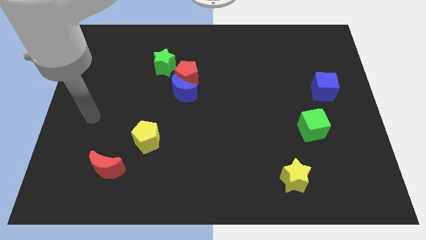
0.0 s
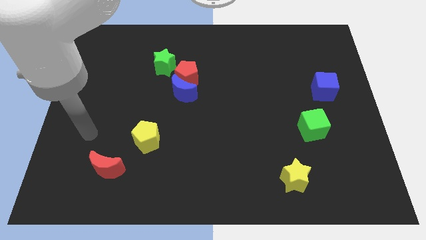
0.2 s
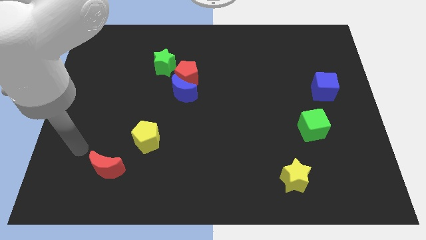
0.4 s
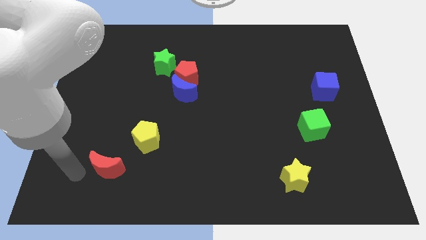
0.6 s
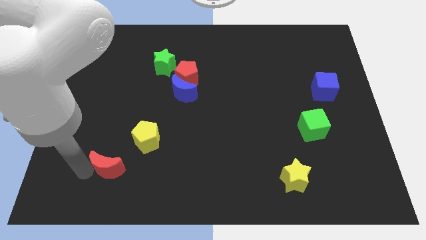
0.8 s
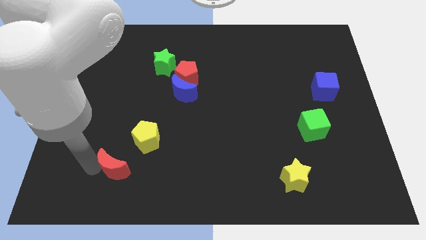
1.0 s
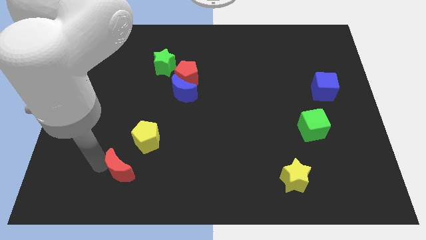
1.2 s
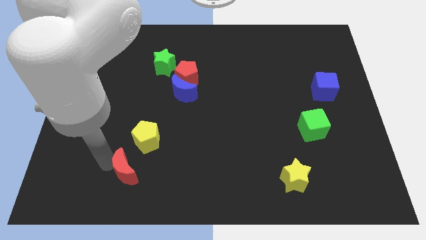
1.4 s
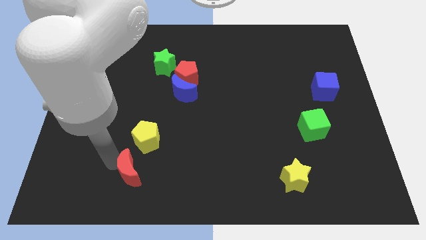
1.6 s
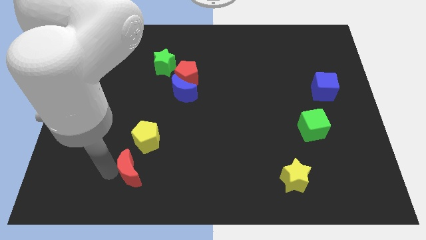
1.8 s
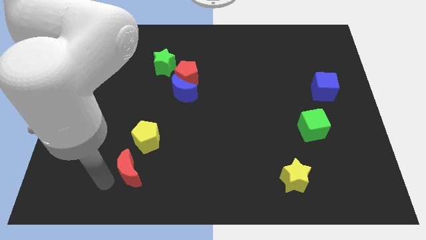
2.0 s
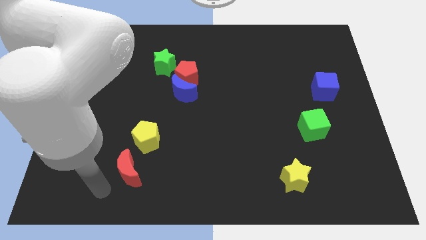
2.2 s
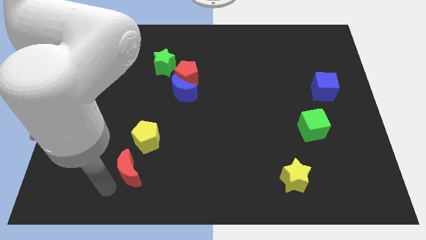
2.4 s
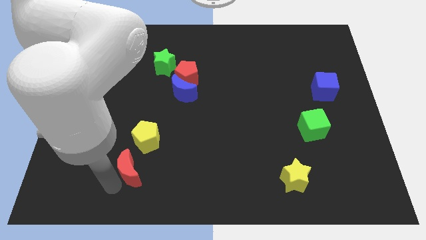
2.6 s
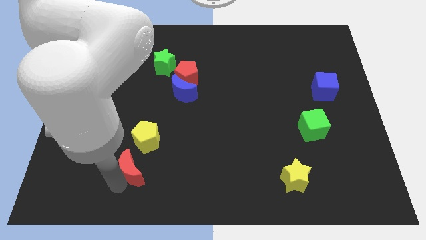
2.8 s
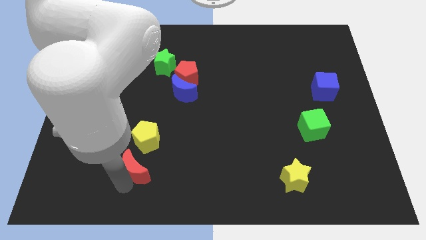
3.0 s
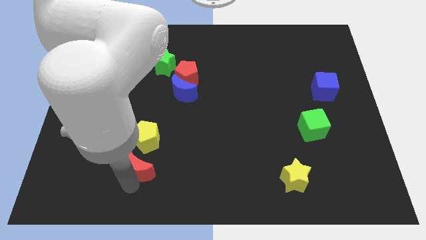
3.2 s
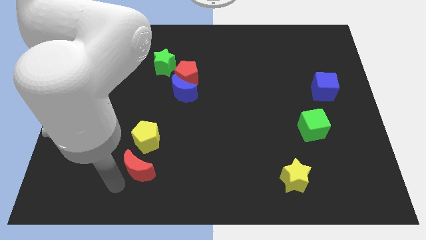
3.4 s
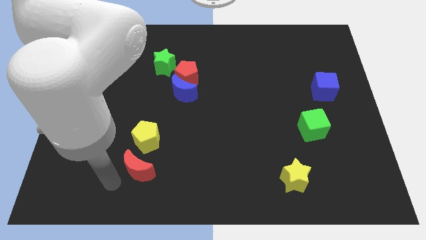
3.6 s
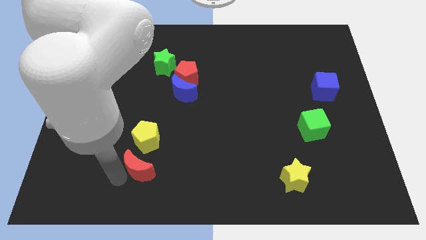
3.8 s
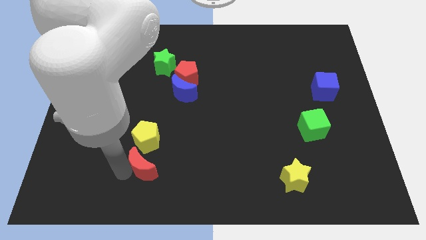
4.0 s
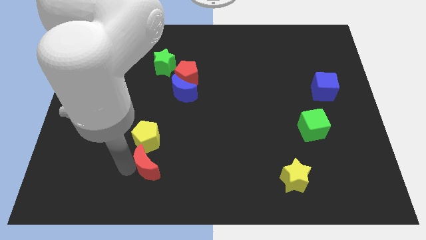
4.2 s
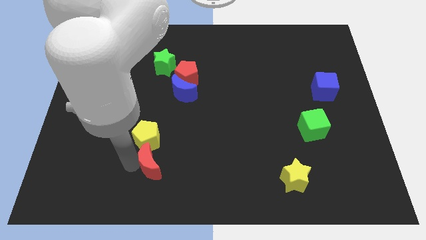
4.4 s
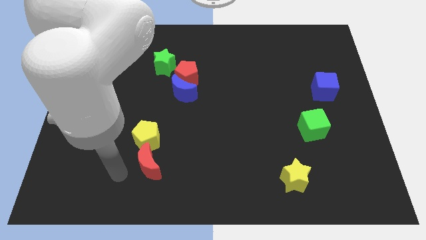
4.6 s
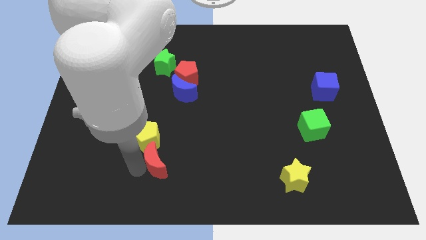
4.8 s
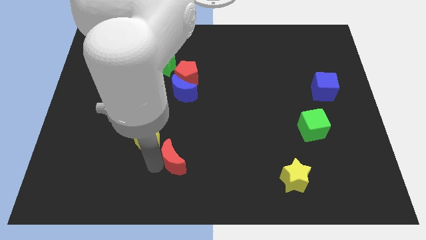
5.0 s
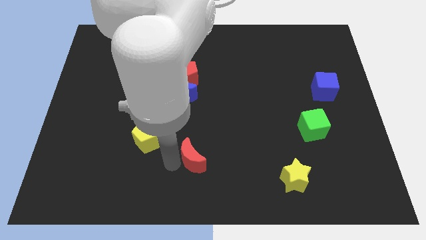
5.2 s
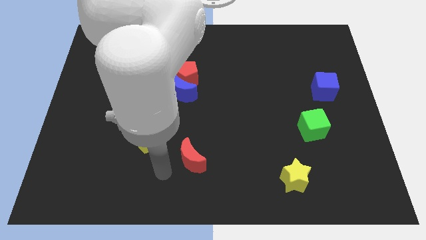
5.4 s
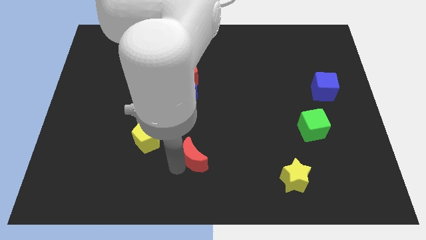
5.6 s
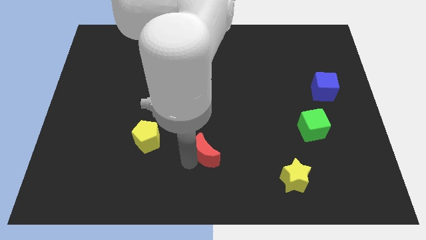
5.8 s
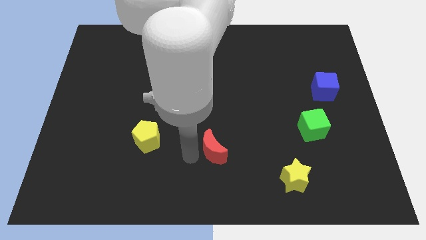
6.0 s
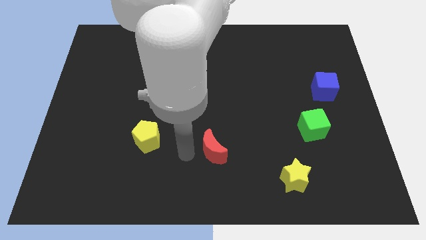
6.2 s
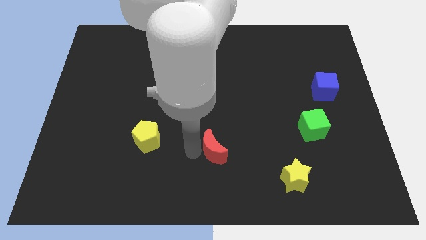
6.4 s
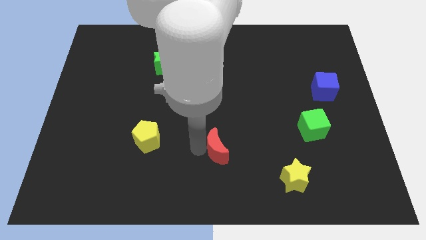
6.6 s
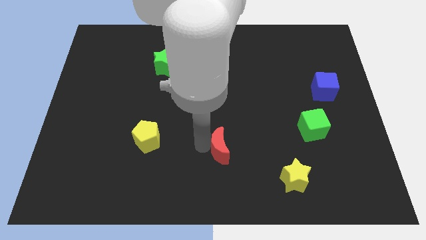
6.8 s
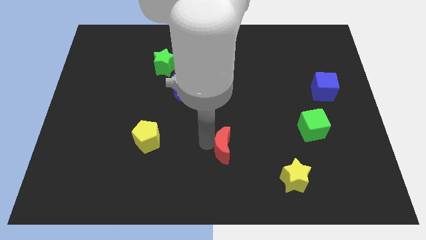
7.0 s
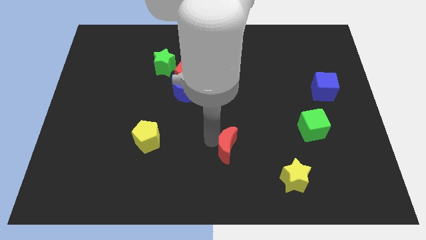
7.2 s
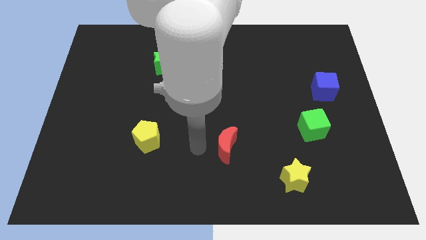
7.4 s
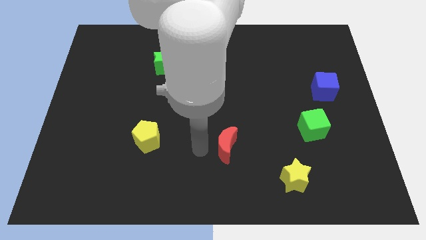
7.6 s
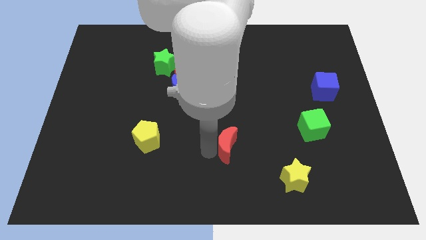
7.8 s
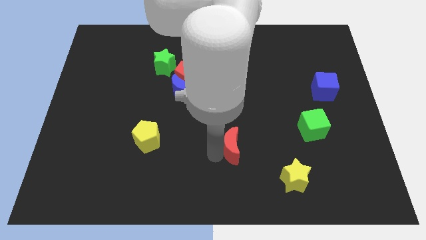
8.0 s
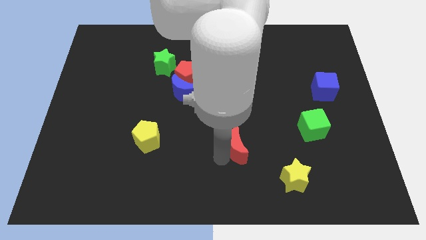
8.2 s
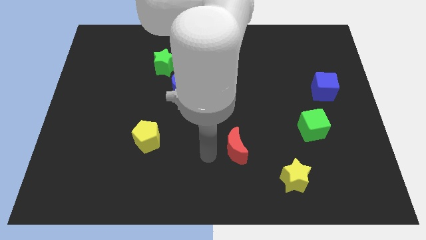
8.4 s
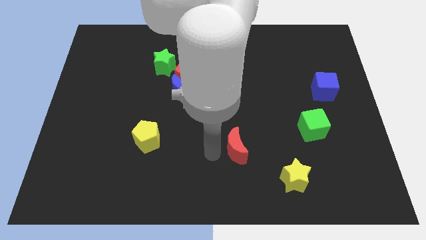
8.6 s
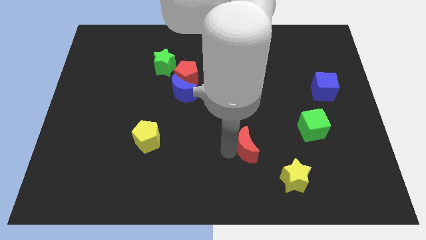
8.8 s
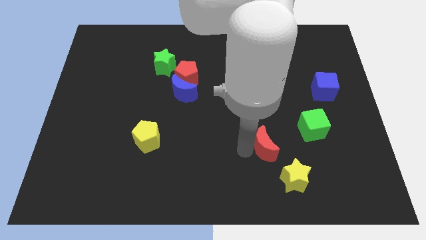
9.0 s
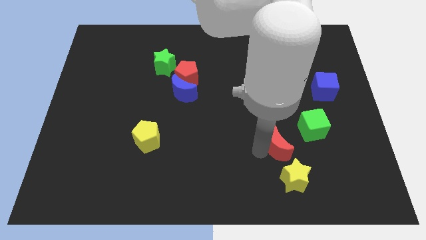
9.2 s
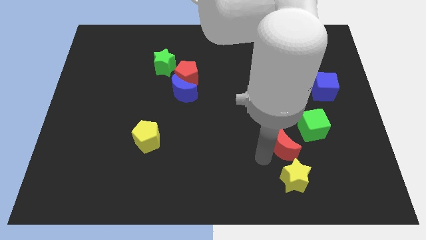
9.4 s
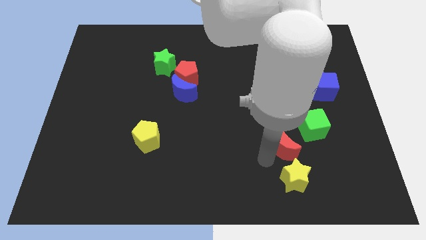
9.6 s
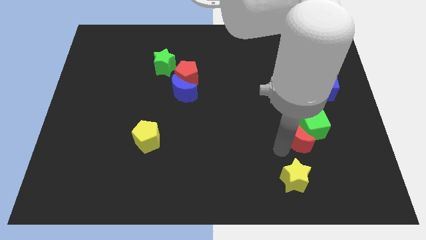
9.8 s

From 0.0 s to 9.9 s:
move the red moon to the green cube

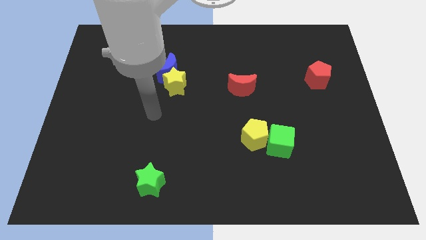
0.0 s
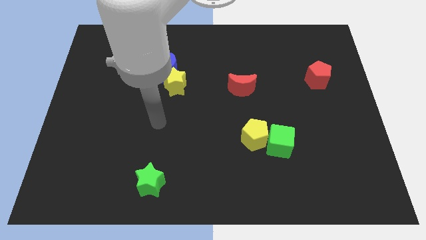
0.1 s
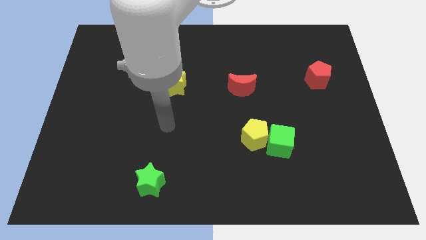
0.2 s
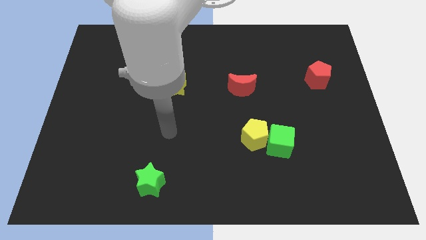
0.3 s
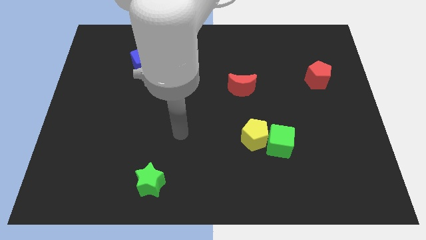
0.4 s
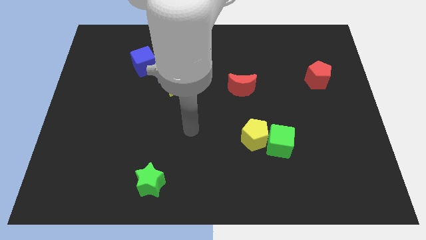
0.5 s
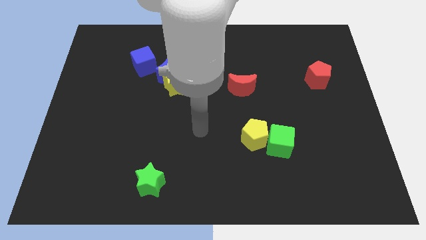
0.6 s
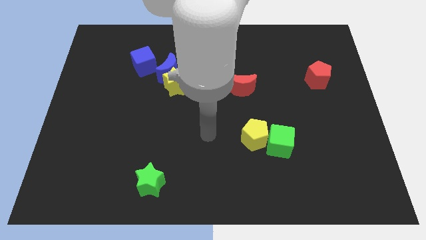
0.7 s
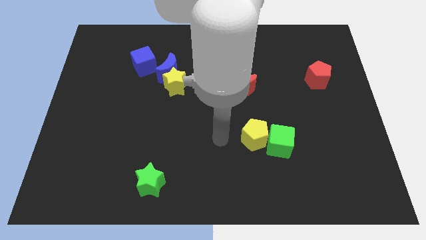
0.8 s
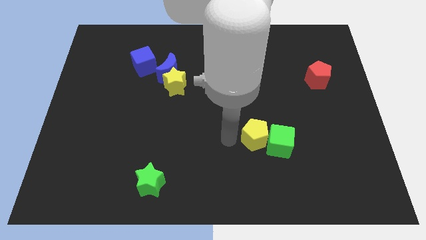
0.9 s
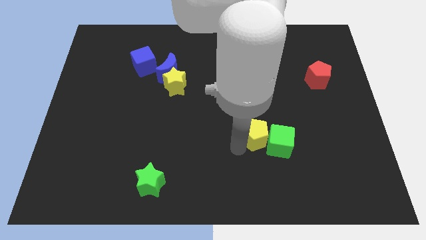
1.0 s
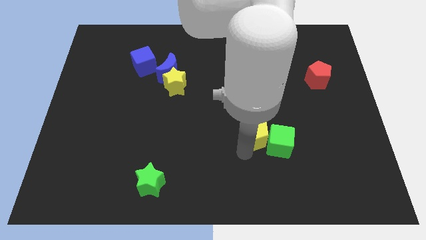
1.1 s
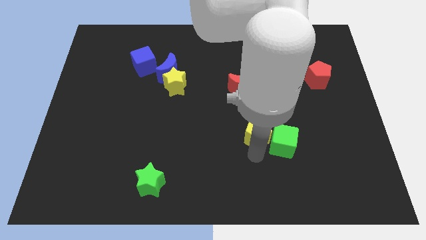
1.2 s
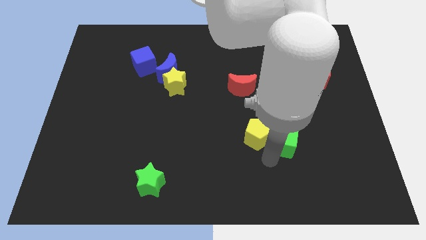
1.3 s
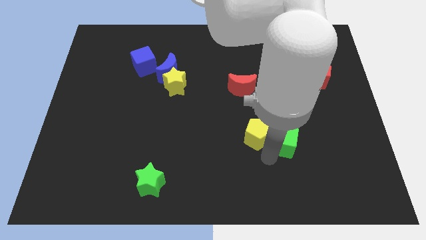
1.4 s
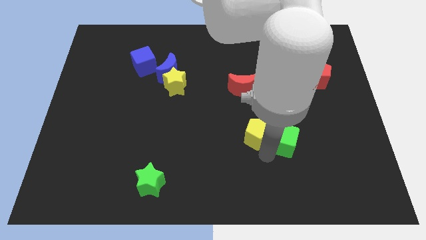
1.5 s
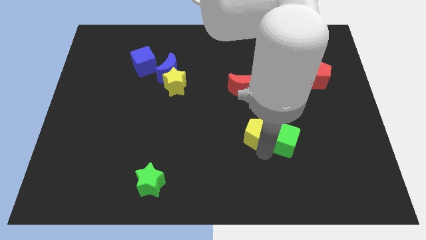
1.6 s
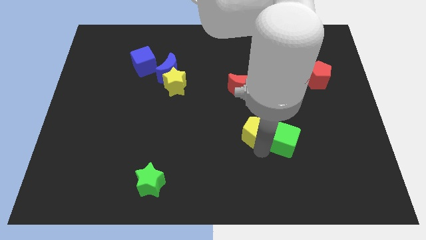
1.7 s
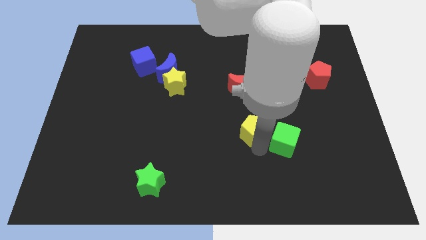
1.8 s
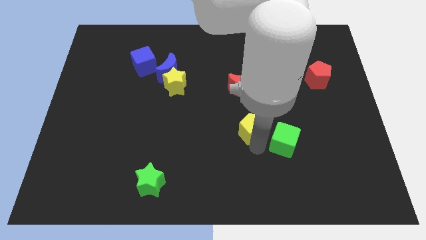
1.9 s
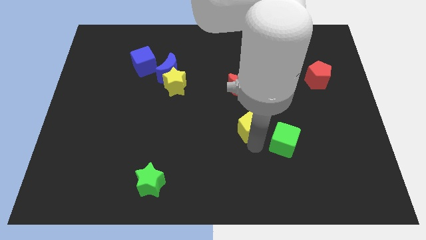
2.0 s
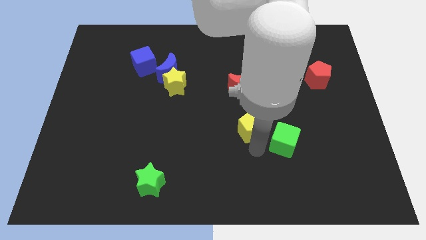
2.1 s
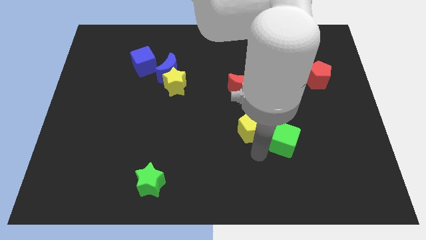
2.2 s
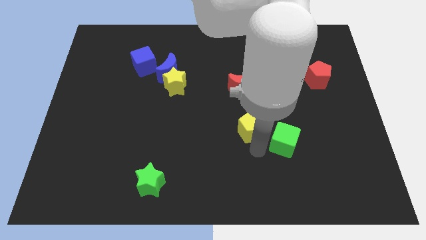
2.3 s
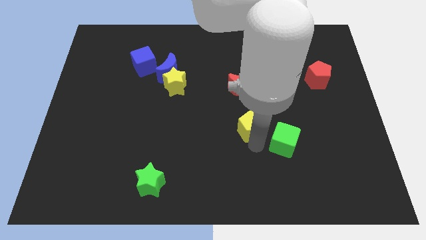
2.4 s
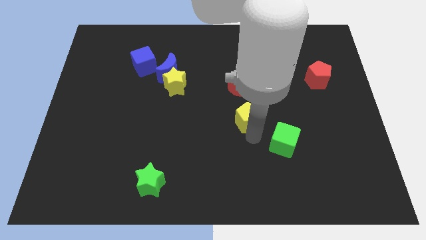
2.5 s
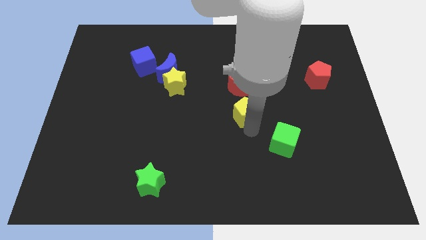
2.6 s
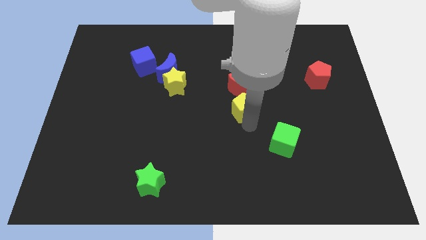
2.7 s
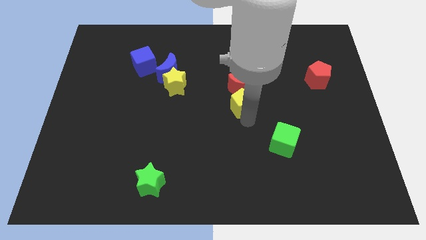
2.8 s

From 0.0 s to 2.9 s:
put the yellow pentagon to the red moon
